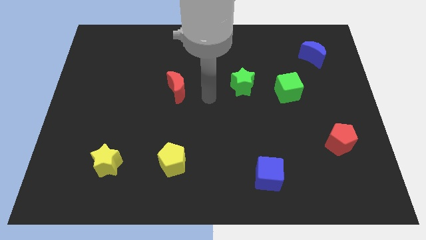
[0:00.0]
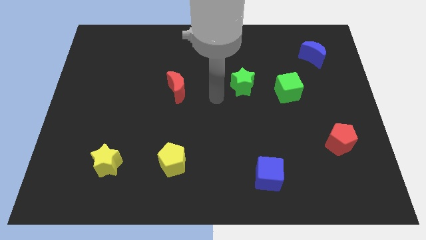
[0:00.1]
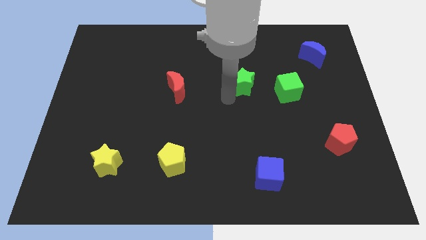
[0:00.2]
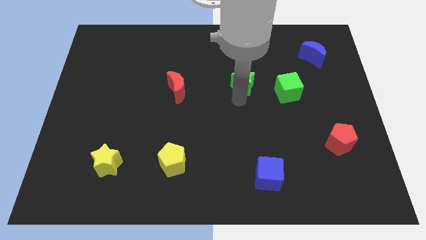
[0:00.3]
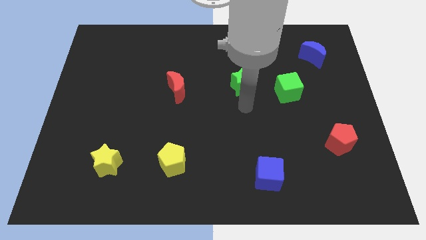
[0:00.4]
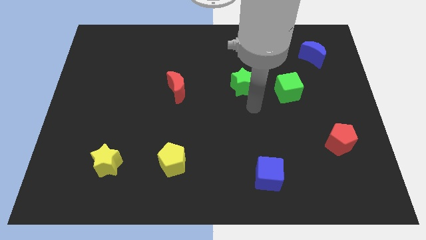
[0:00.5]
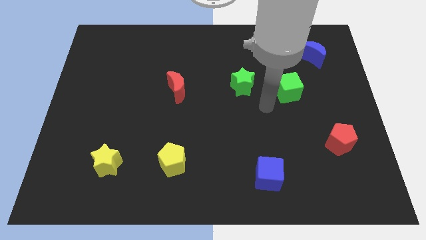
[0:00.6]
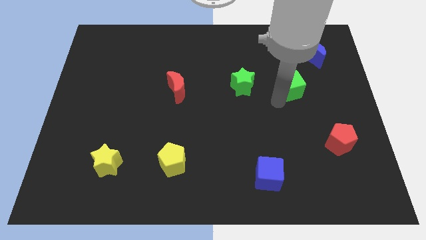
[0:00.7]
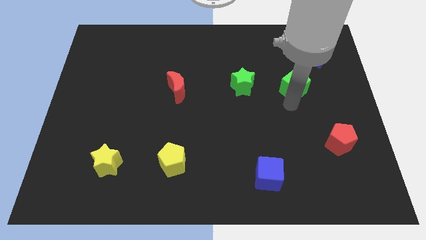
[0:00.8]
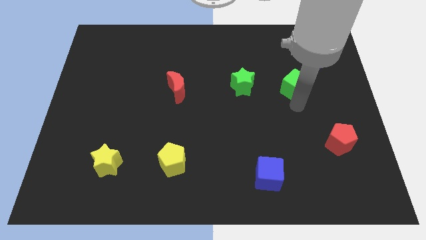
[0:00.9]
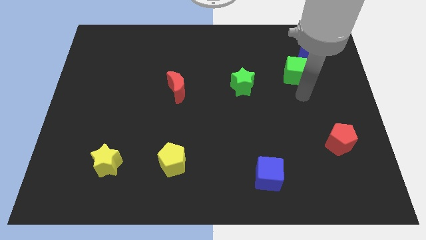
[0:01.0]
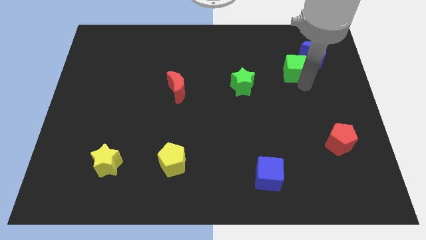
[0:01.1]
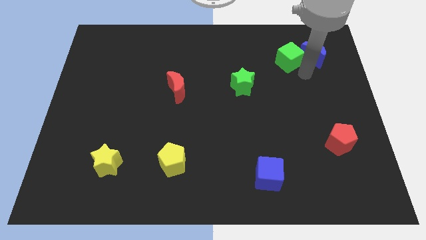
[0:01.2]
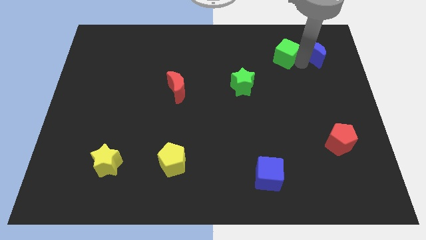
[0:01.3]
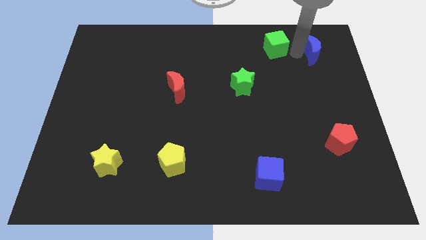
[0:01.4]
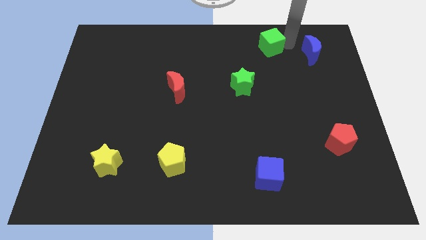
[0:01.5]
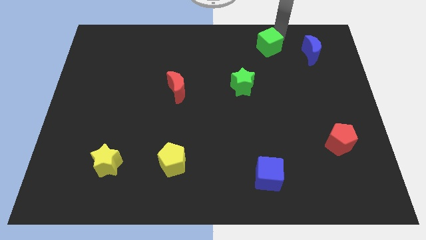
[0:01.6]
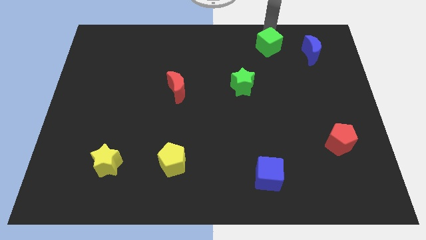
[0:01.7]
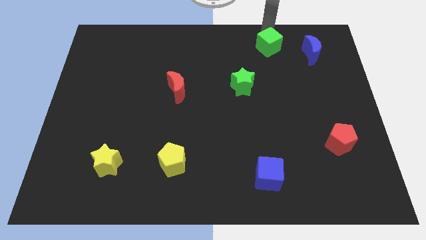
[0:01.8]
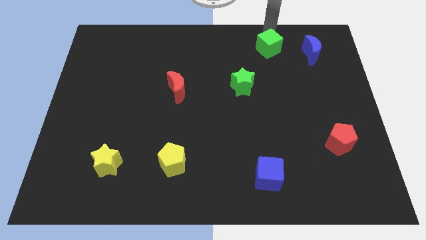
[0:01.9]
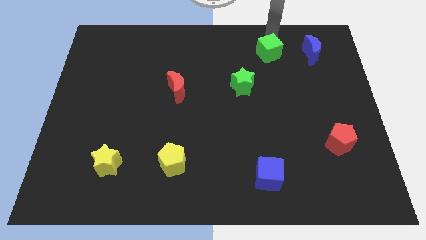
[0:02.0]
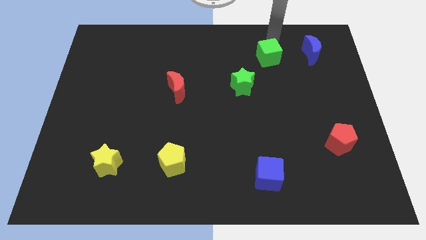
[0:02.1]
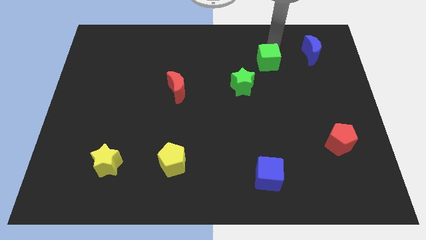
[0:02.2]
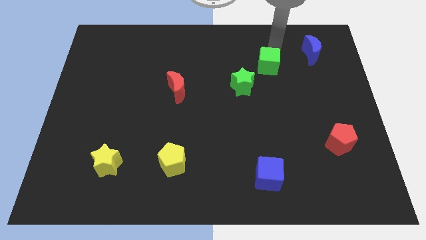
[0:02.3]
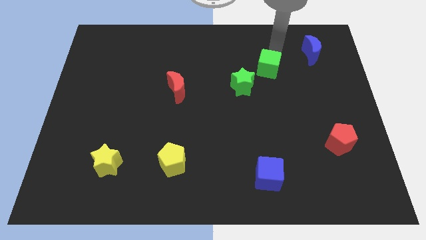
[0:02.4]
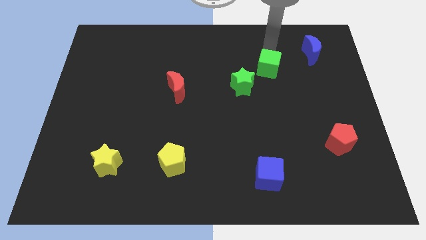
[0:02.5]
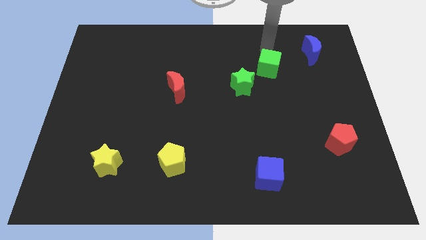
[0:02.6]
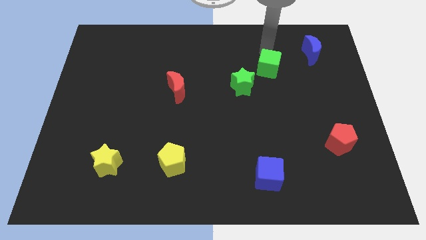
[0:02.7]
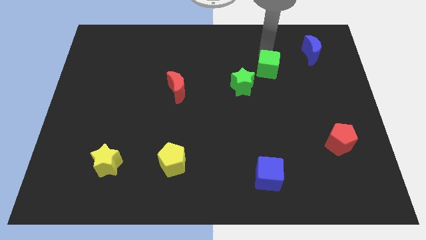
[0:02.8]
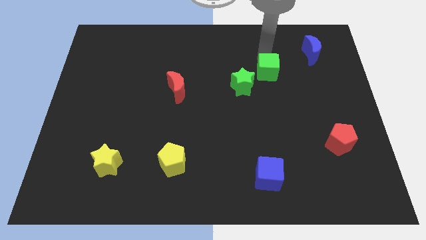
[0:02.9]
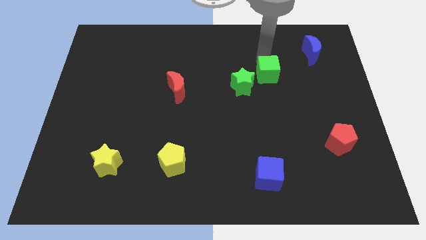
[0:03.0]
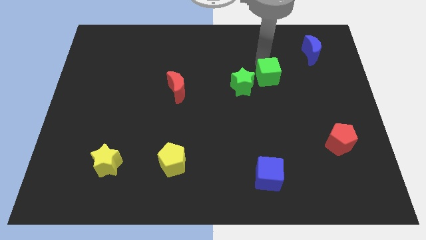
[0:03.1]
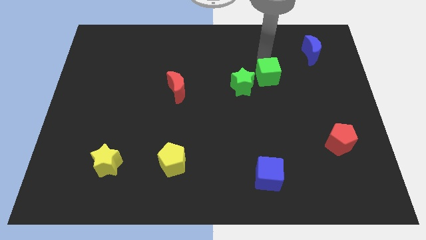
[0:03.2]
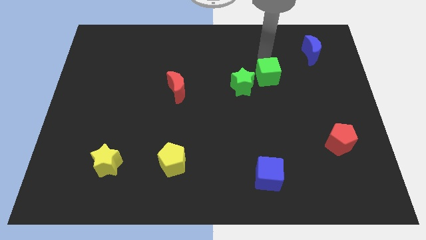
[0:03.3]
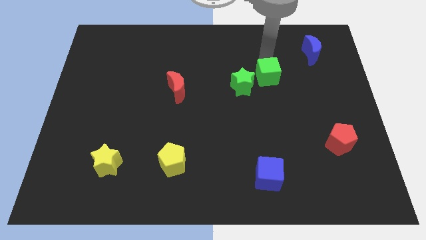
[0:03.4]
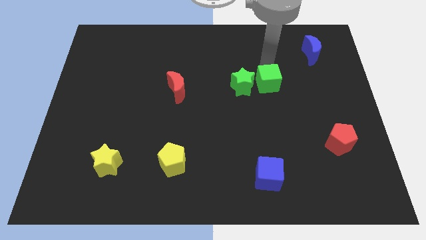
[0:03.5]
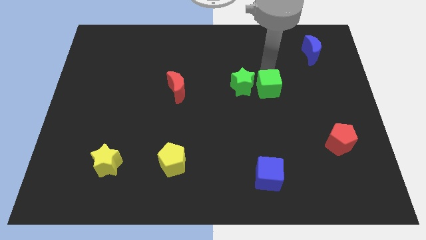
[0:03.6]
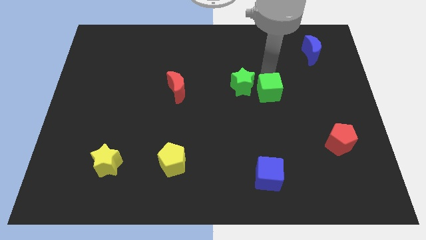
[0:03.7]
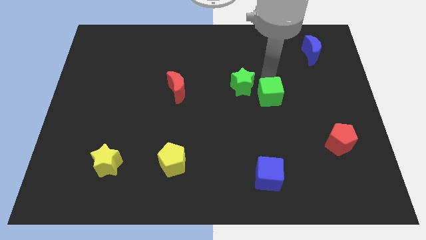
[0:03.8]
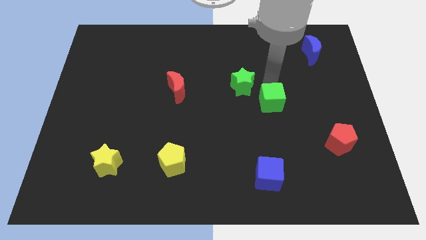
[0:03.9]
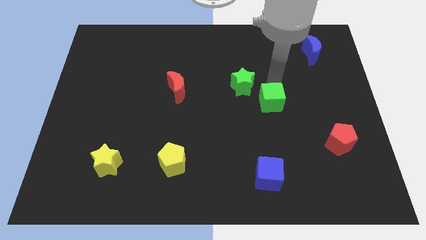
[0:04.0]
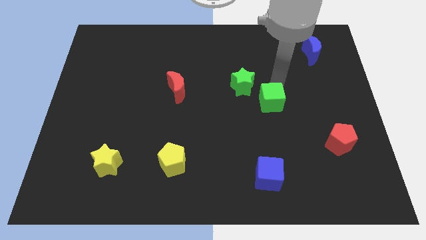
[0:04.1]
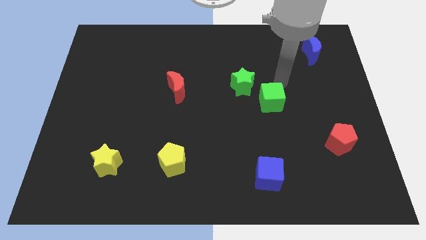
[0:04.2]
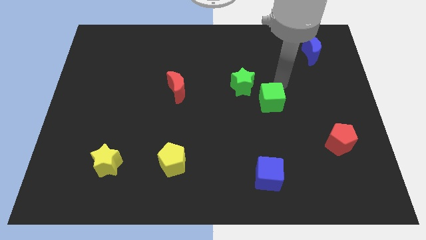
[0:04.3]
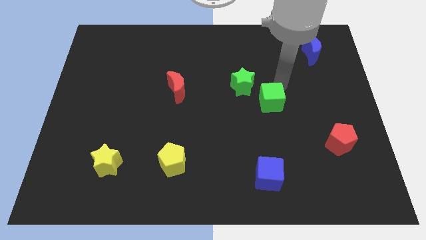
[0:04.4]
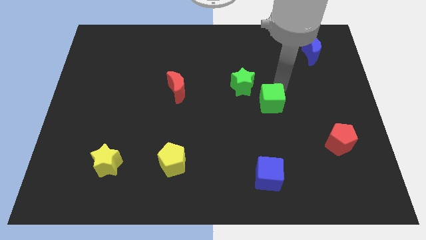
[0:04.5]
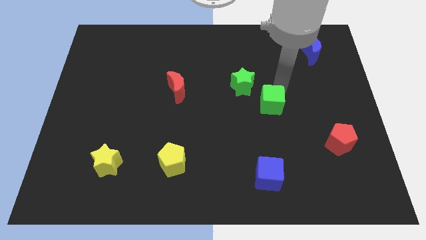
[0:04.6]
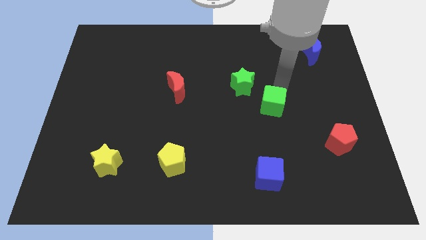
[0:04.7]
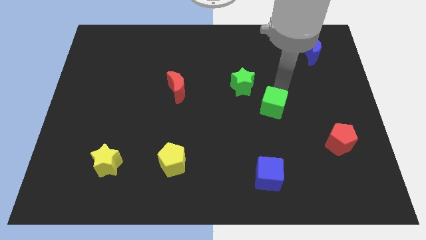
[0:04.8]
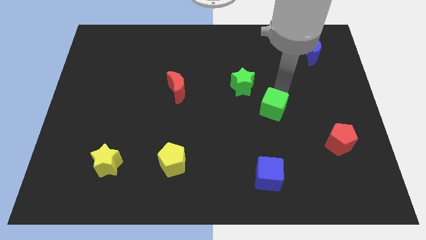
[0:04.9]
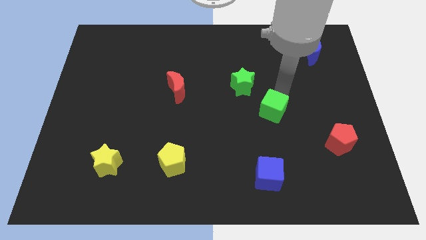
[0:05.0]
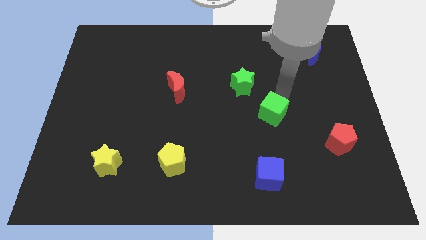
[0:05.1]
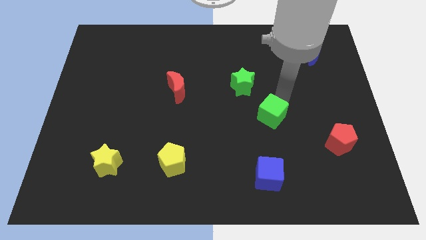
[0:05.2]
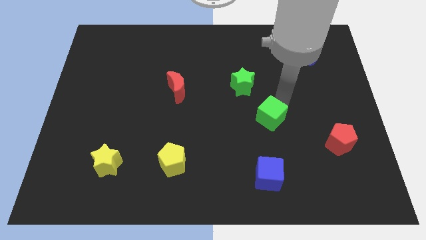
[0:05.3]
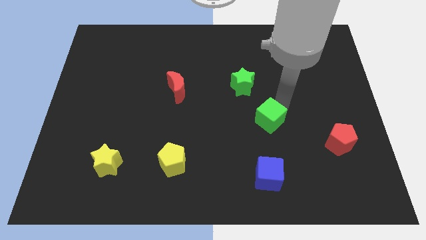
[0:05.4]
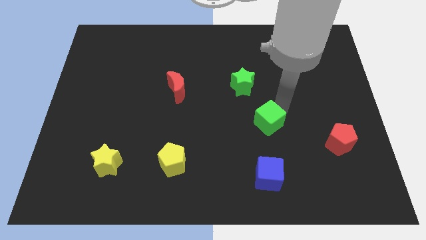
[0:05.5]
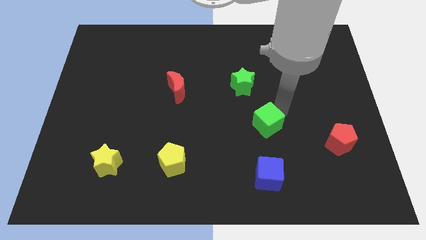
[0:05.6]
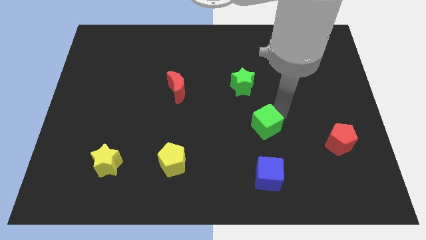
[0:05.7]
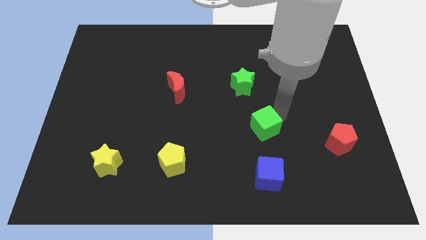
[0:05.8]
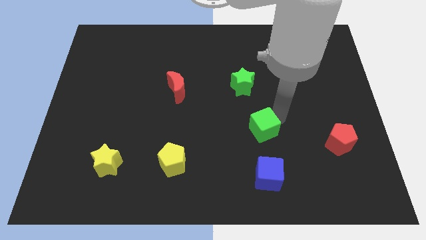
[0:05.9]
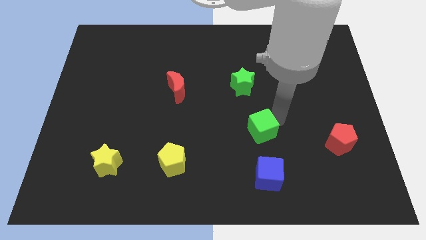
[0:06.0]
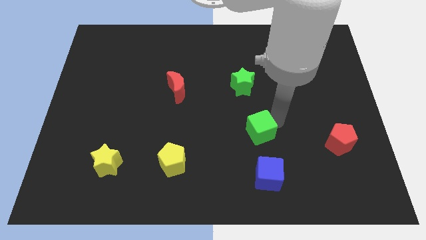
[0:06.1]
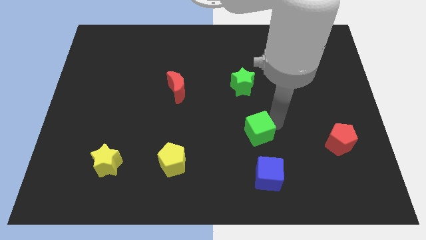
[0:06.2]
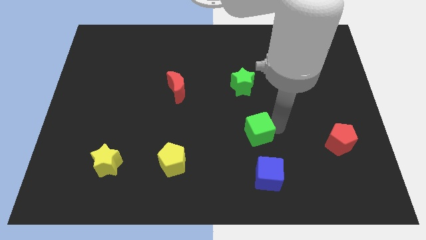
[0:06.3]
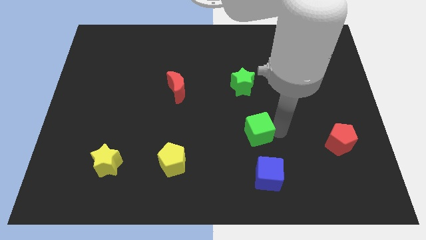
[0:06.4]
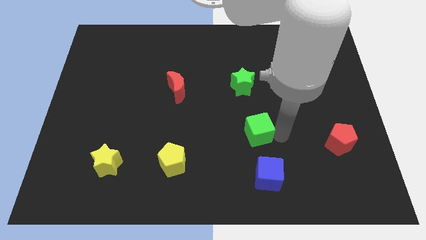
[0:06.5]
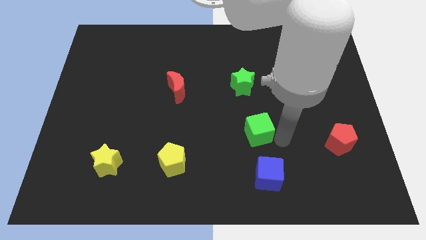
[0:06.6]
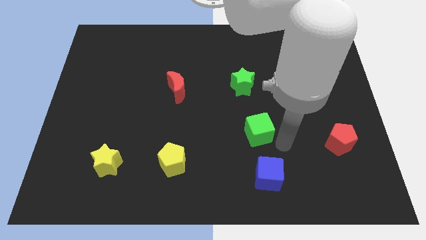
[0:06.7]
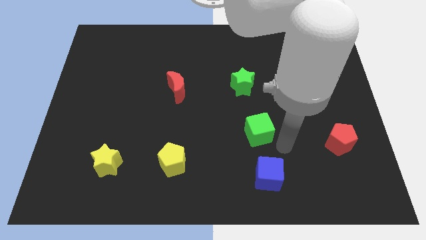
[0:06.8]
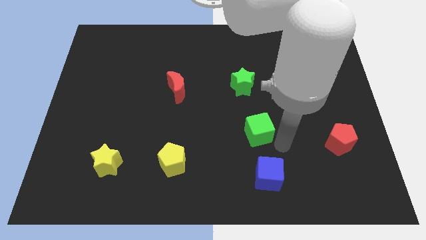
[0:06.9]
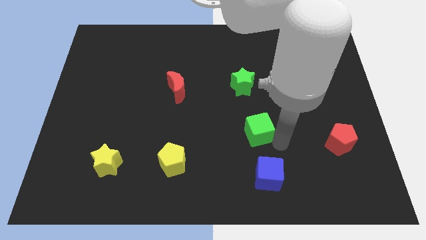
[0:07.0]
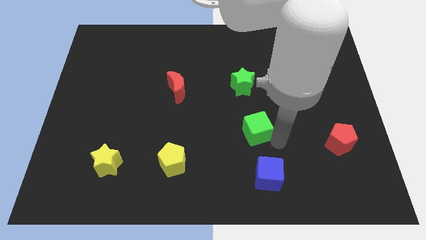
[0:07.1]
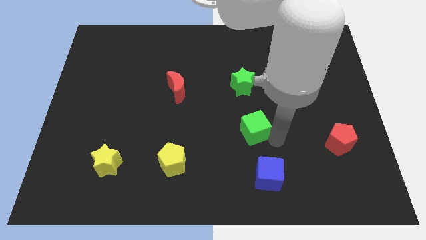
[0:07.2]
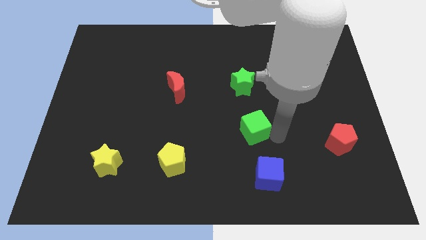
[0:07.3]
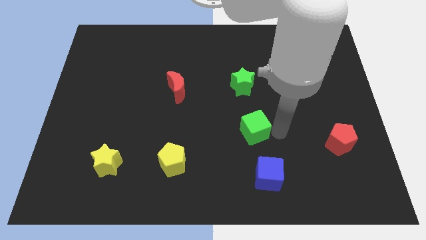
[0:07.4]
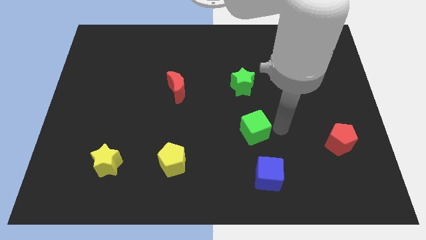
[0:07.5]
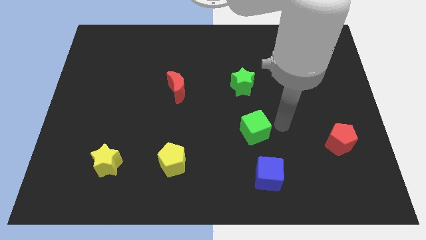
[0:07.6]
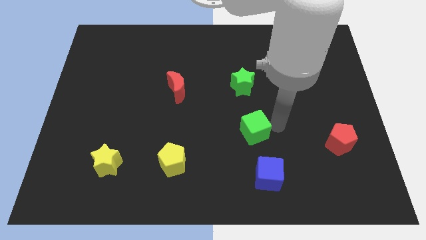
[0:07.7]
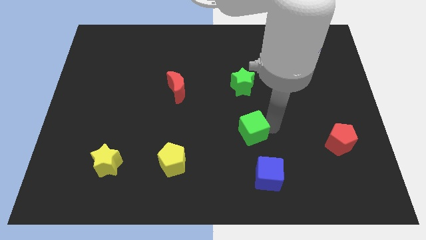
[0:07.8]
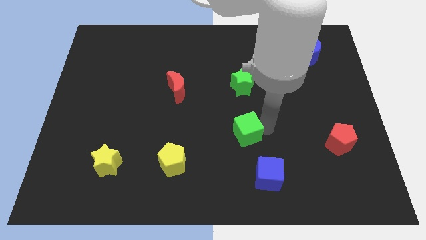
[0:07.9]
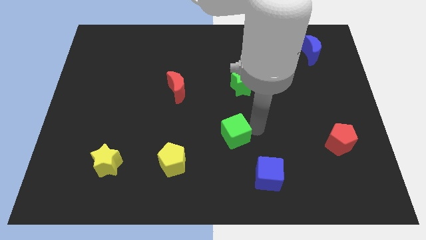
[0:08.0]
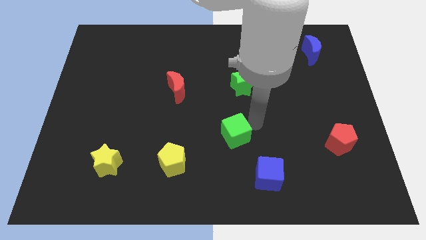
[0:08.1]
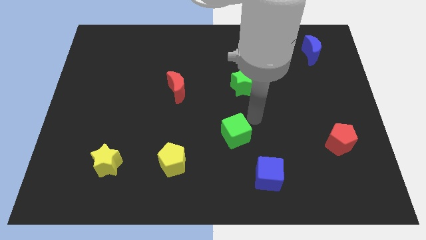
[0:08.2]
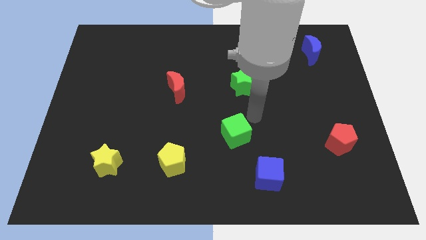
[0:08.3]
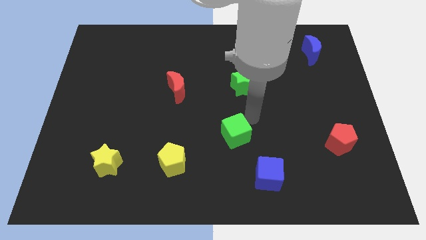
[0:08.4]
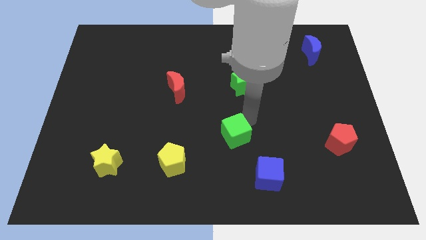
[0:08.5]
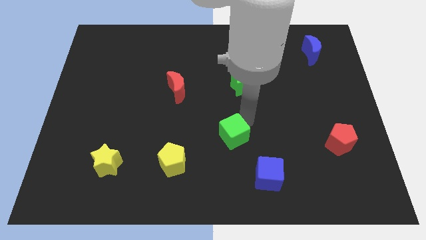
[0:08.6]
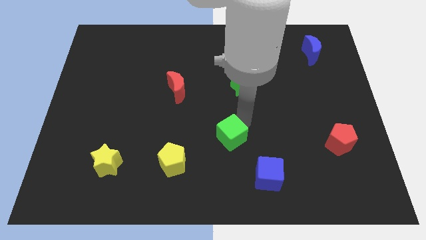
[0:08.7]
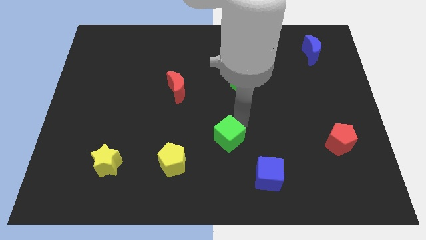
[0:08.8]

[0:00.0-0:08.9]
slide the green cube down and then to the left
